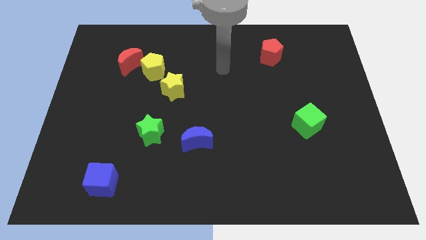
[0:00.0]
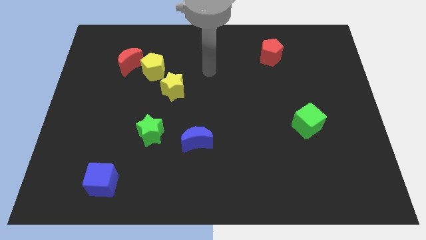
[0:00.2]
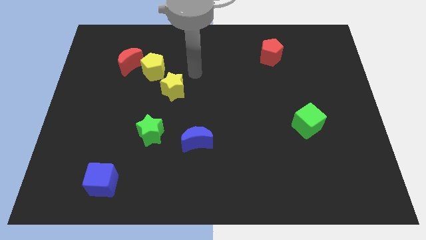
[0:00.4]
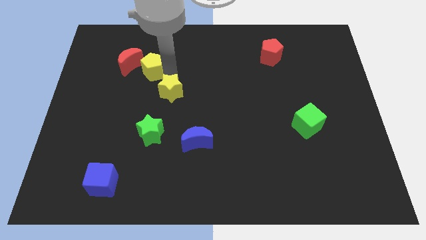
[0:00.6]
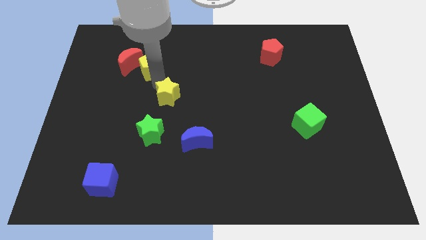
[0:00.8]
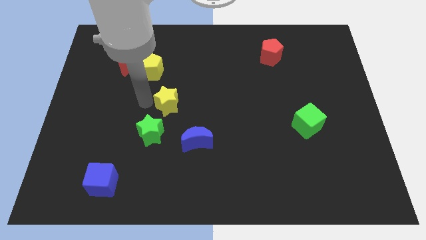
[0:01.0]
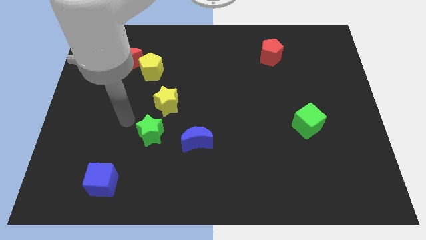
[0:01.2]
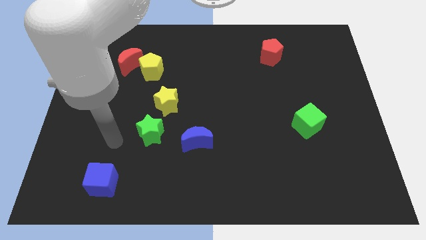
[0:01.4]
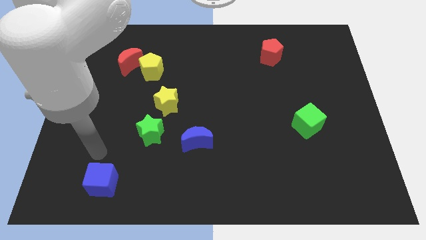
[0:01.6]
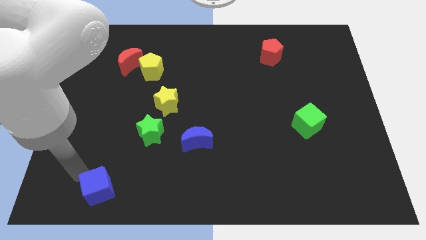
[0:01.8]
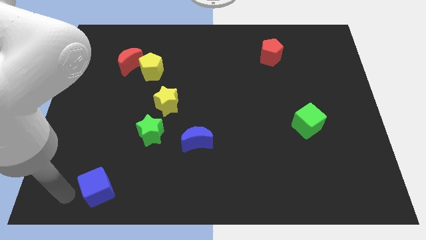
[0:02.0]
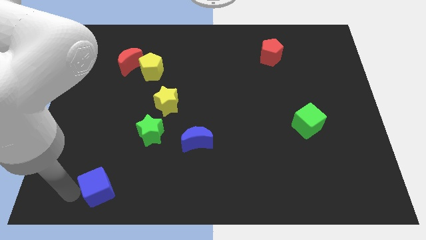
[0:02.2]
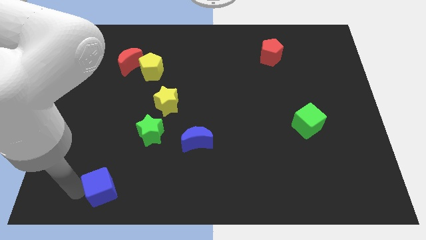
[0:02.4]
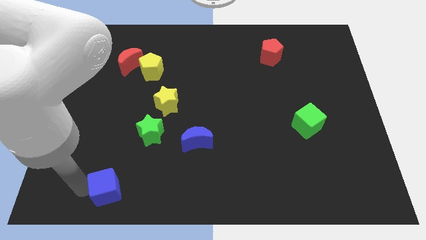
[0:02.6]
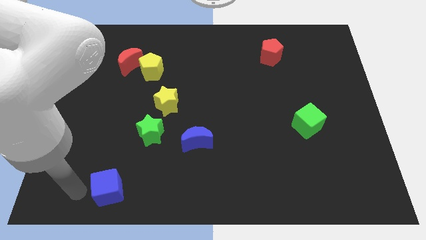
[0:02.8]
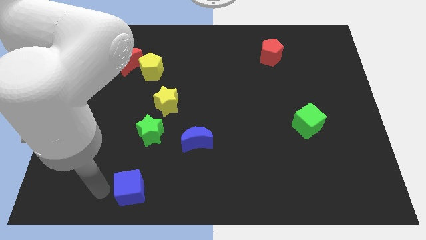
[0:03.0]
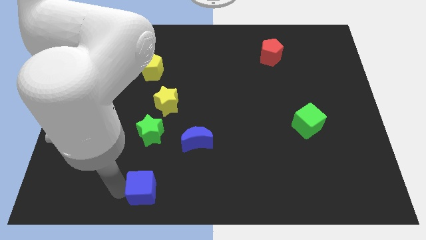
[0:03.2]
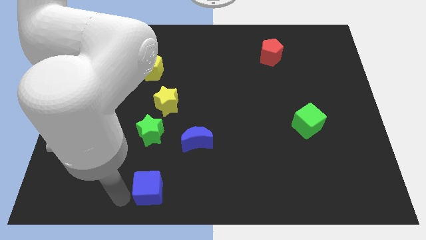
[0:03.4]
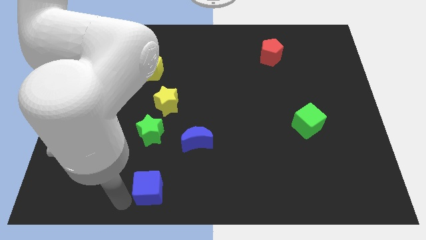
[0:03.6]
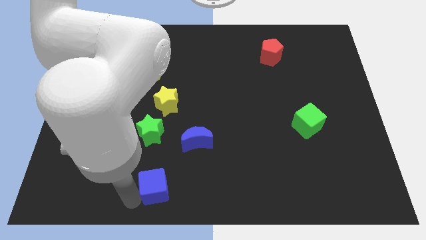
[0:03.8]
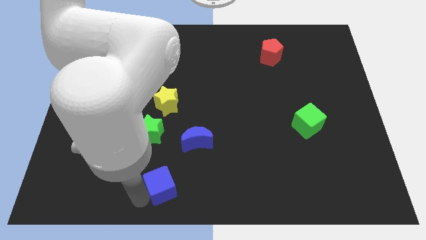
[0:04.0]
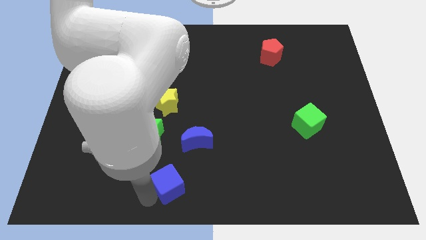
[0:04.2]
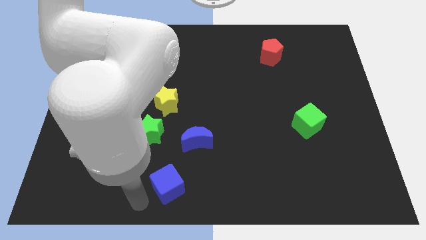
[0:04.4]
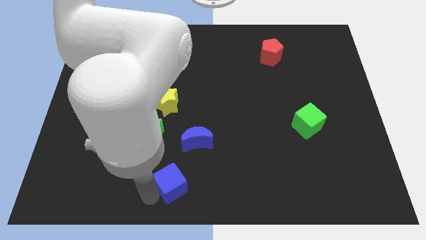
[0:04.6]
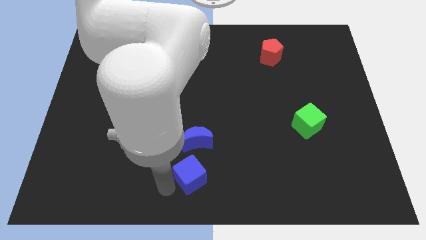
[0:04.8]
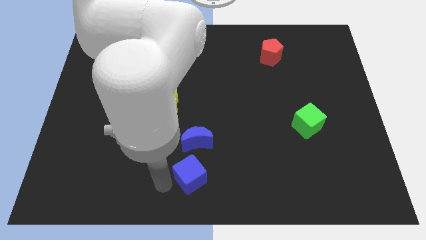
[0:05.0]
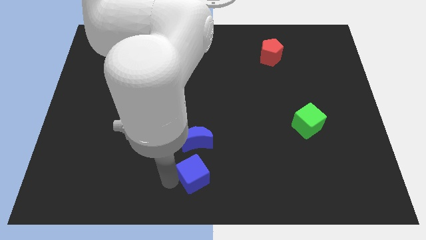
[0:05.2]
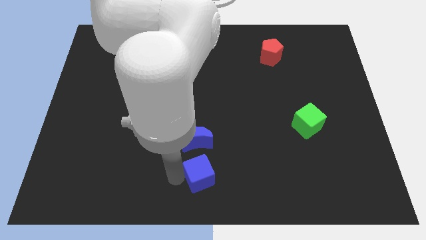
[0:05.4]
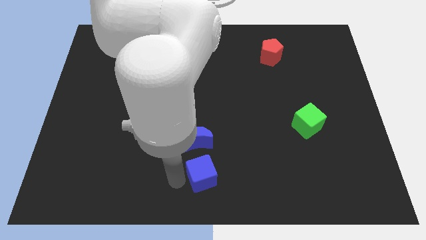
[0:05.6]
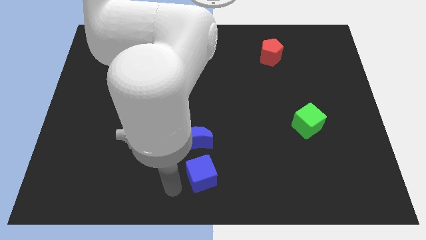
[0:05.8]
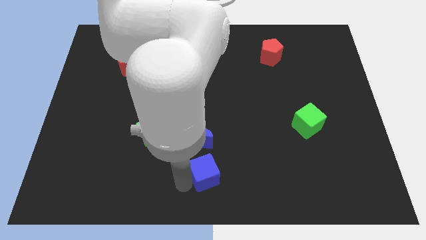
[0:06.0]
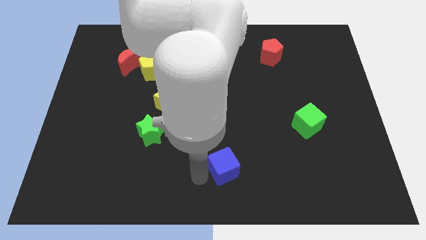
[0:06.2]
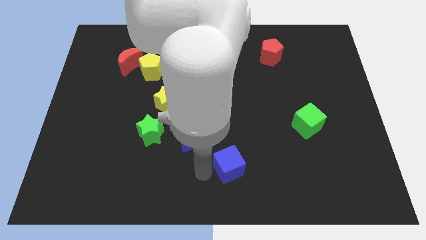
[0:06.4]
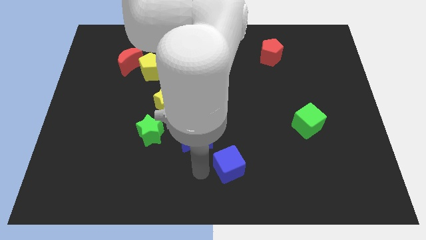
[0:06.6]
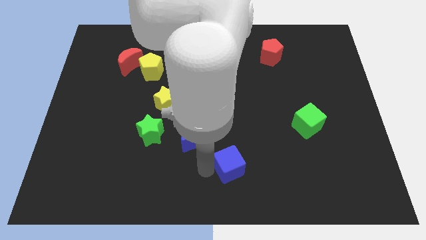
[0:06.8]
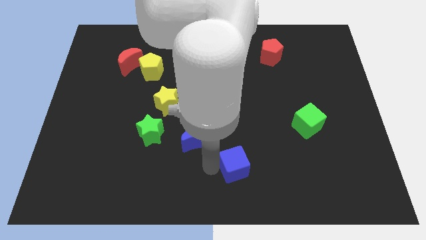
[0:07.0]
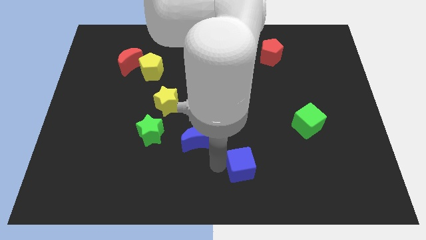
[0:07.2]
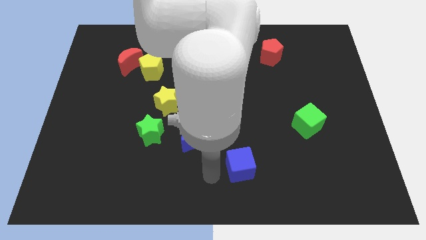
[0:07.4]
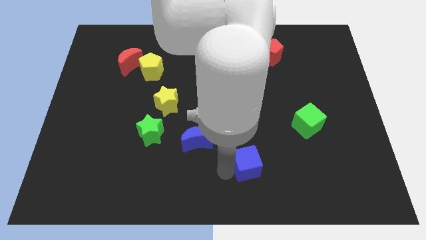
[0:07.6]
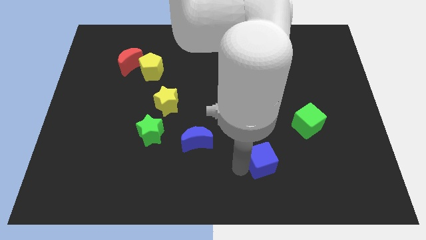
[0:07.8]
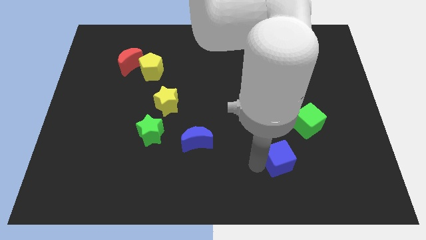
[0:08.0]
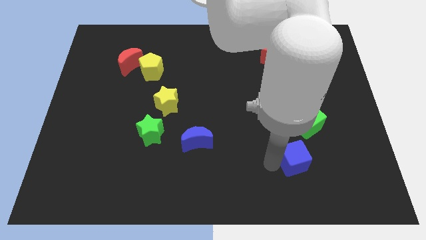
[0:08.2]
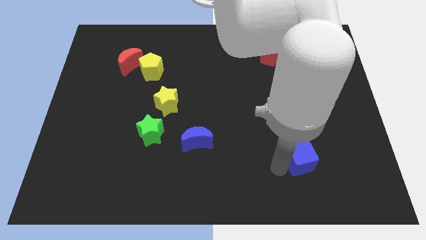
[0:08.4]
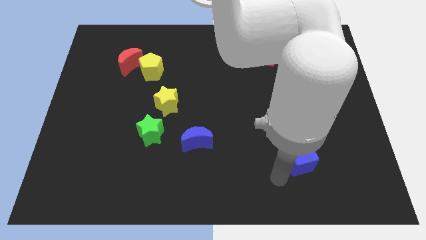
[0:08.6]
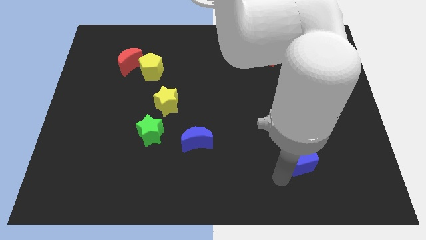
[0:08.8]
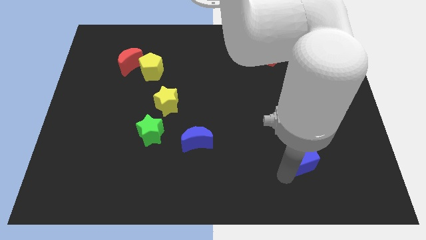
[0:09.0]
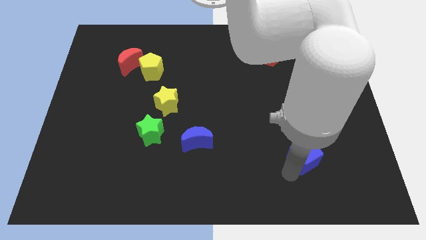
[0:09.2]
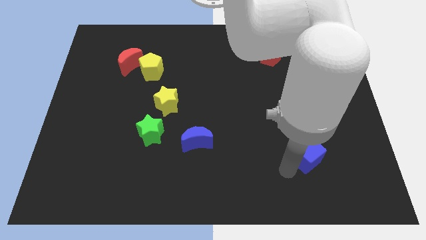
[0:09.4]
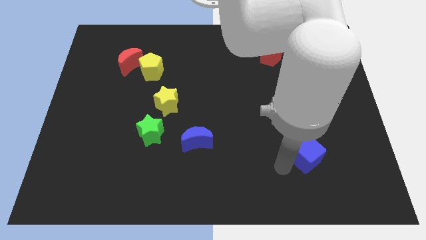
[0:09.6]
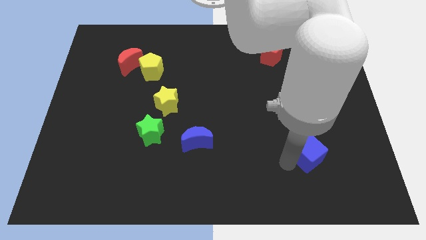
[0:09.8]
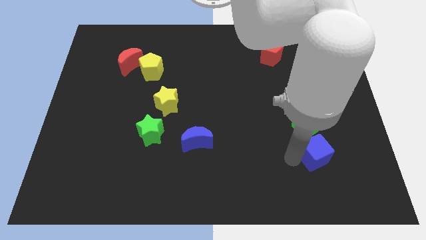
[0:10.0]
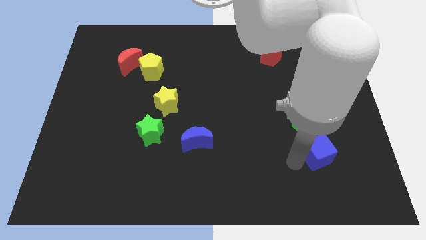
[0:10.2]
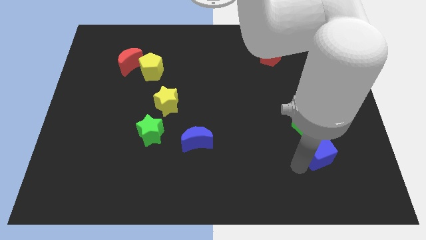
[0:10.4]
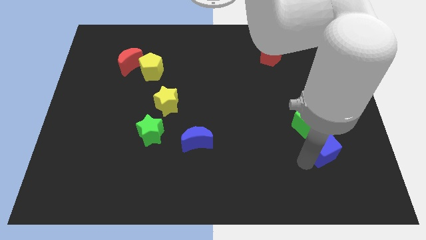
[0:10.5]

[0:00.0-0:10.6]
slide the blue cube to the bottom right side of the green cube

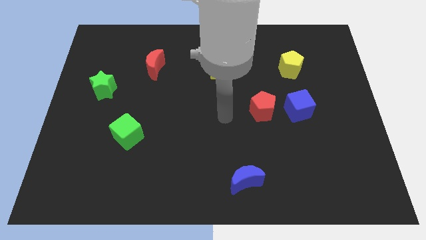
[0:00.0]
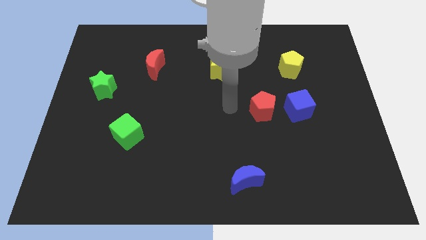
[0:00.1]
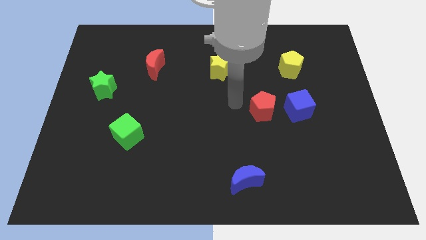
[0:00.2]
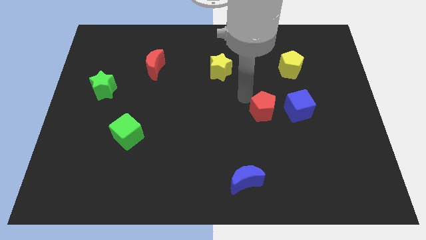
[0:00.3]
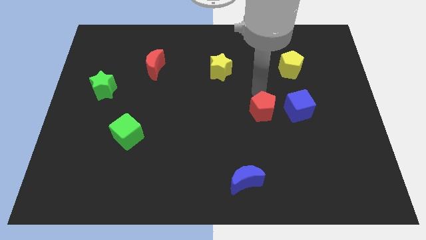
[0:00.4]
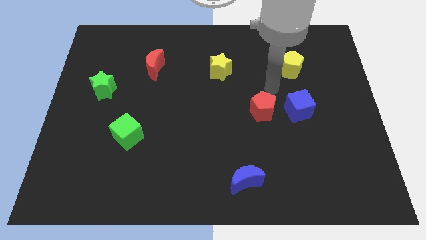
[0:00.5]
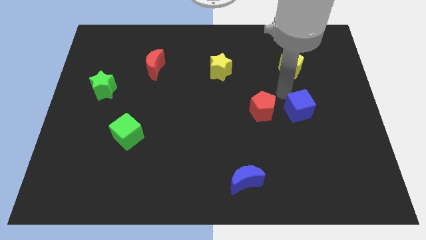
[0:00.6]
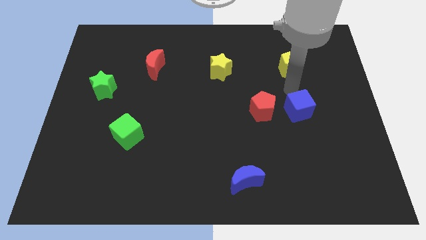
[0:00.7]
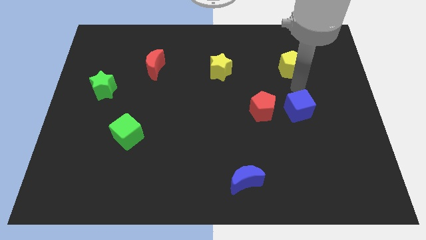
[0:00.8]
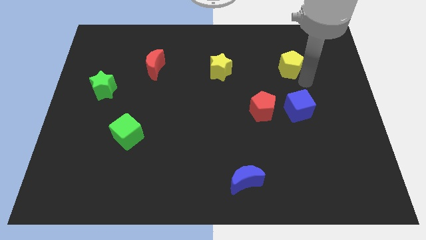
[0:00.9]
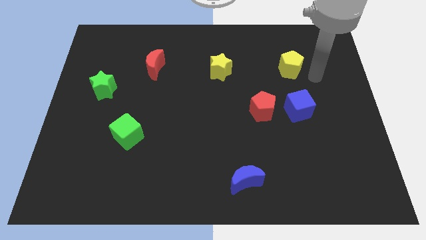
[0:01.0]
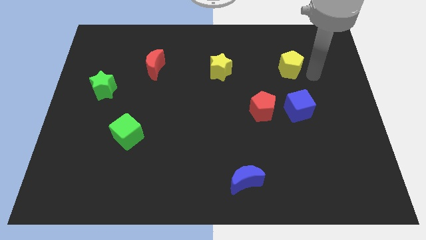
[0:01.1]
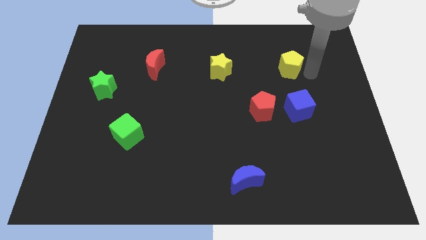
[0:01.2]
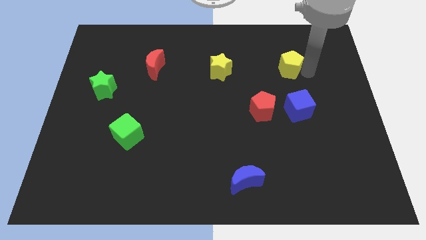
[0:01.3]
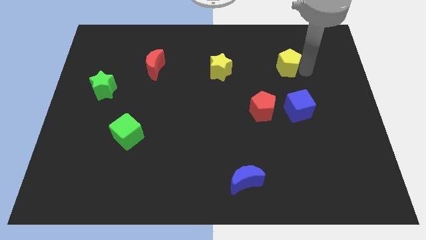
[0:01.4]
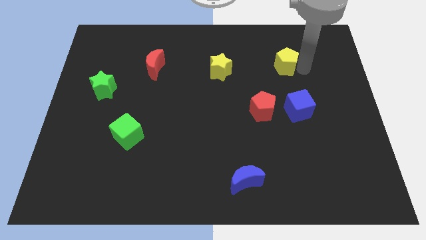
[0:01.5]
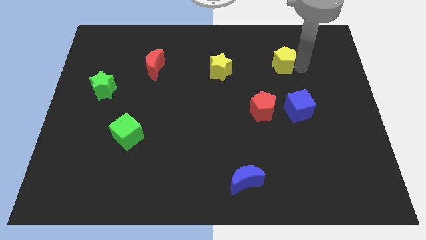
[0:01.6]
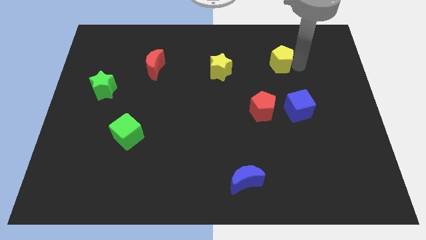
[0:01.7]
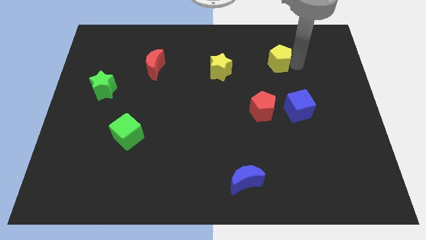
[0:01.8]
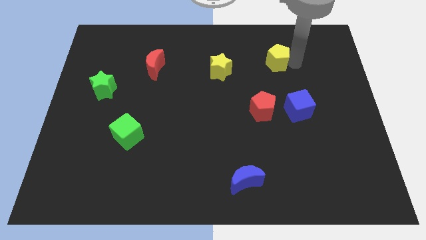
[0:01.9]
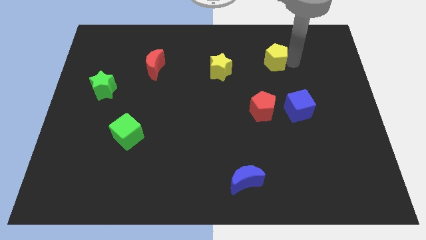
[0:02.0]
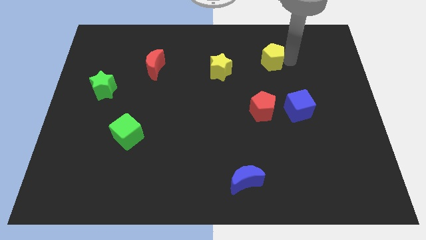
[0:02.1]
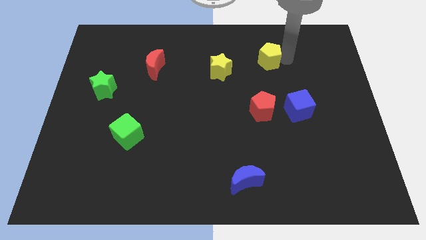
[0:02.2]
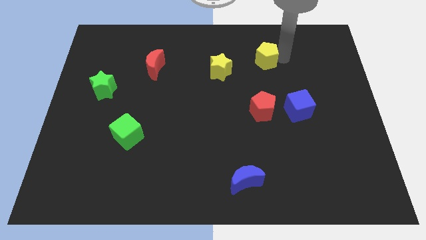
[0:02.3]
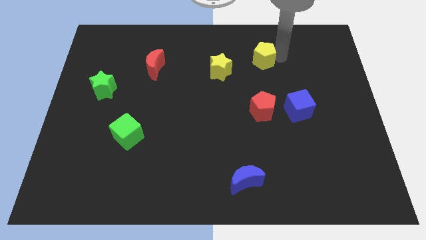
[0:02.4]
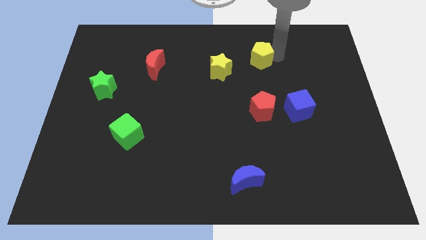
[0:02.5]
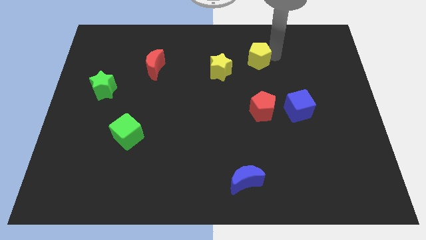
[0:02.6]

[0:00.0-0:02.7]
move the yellow pentagon to the top right of the yellow star
